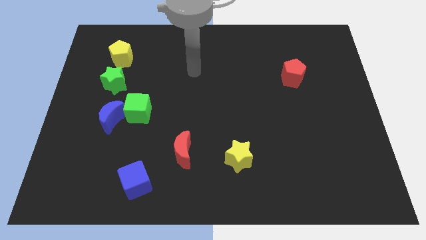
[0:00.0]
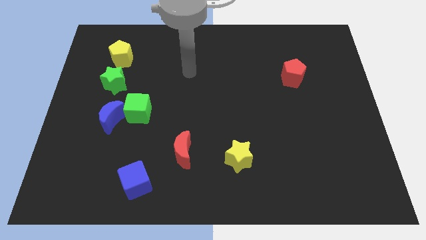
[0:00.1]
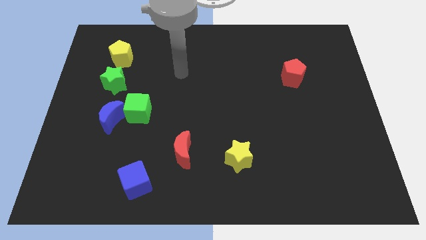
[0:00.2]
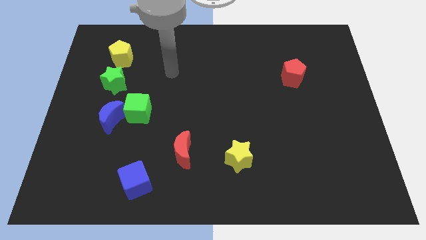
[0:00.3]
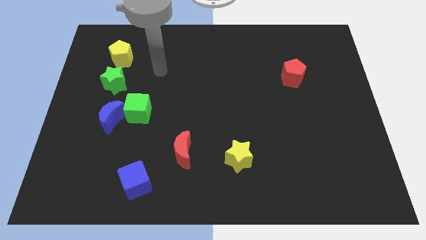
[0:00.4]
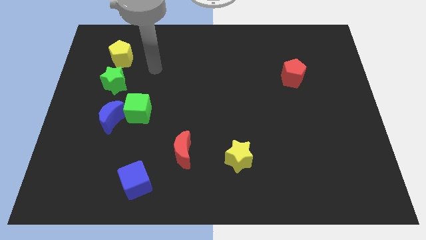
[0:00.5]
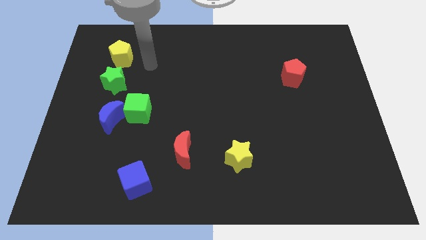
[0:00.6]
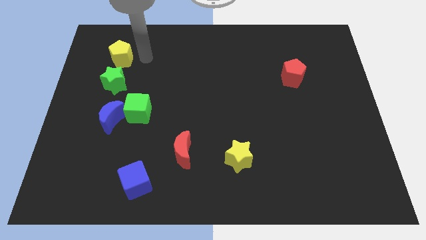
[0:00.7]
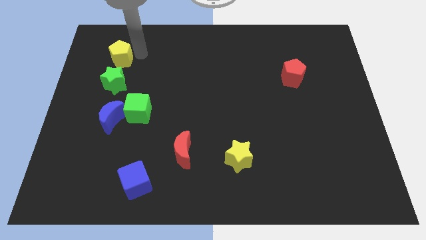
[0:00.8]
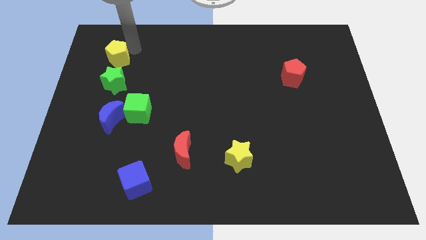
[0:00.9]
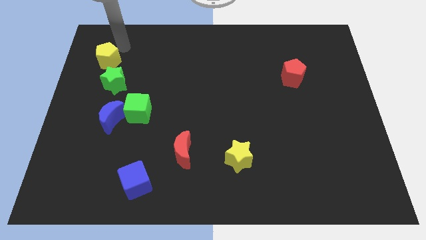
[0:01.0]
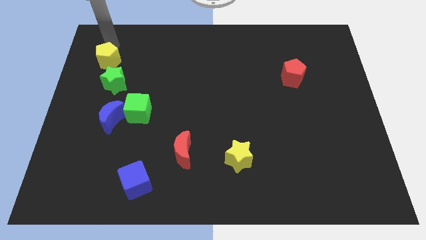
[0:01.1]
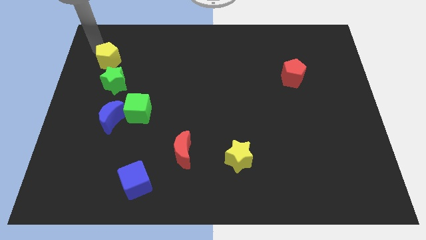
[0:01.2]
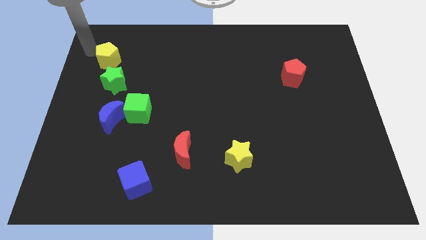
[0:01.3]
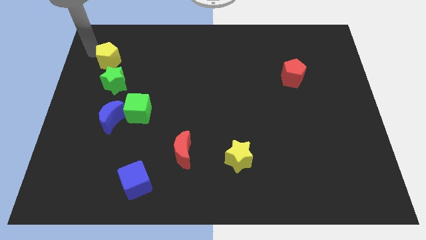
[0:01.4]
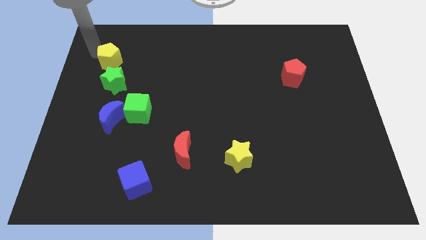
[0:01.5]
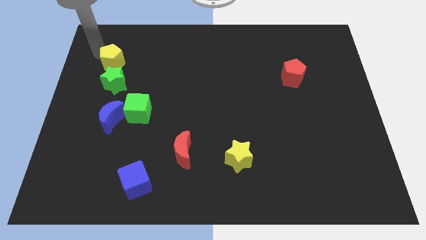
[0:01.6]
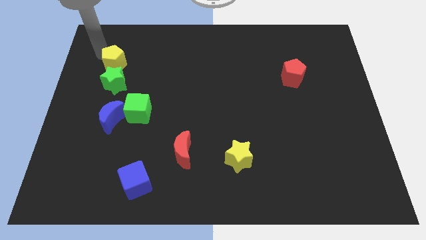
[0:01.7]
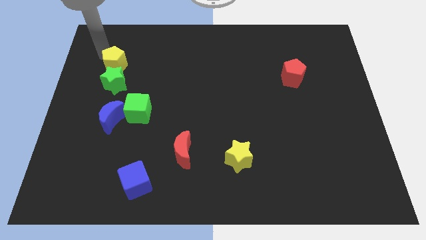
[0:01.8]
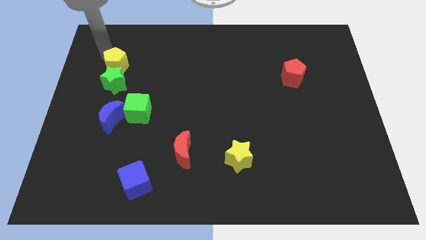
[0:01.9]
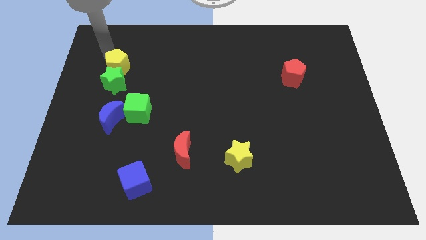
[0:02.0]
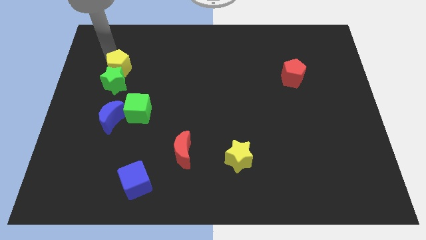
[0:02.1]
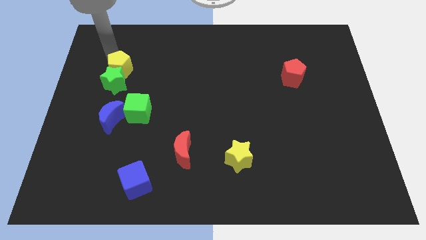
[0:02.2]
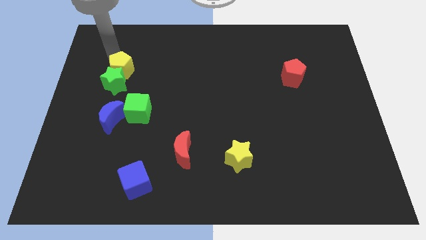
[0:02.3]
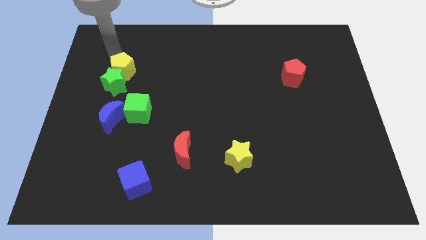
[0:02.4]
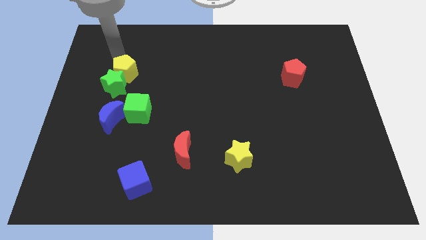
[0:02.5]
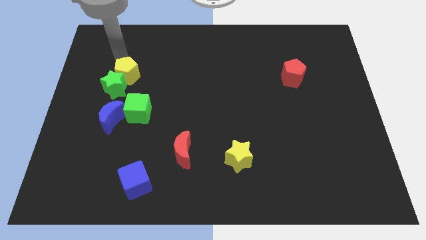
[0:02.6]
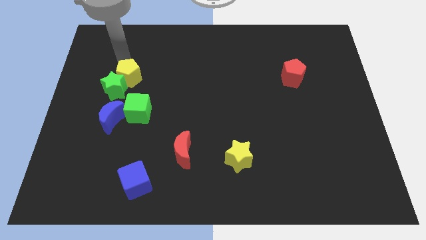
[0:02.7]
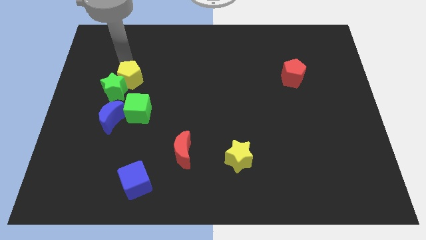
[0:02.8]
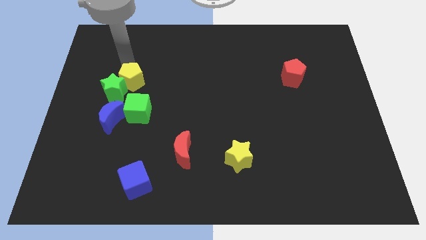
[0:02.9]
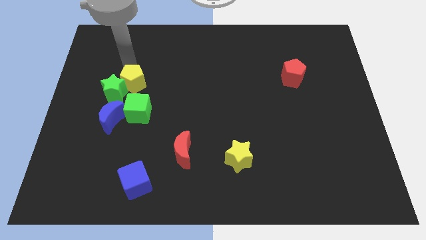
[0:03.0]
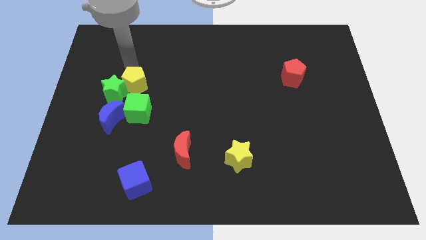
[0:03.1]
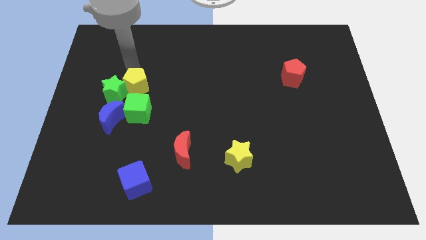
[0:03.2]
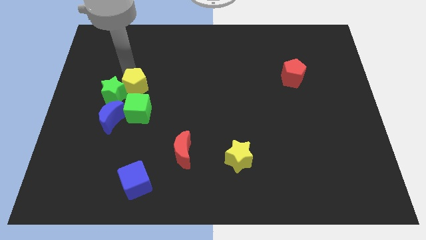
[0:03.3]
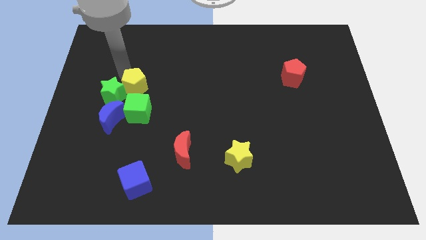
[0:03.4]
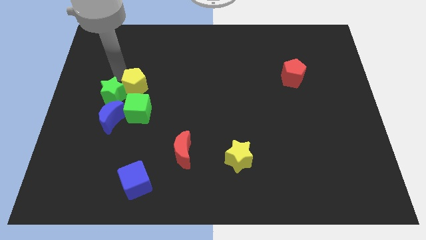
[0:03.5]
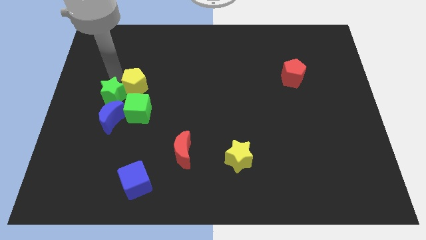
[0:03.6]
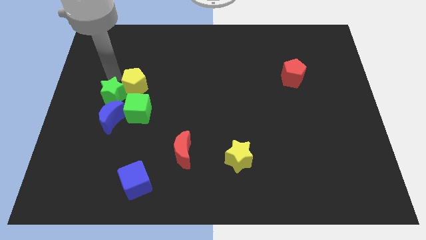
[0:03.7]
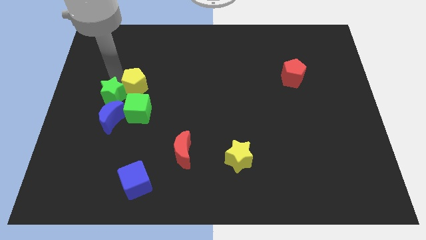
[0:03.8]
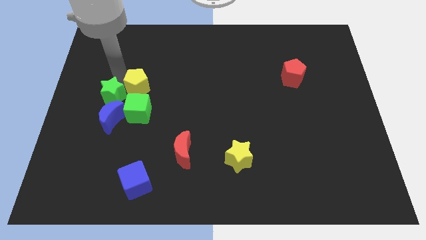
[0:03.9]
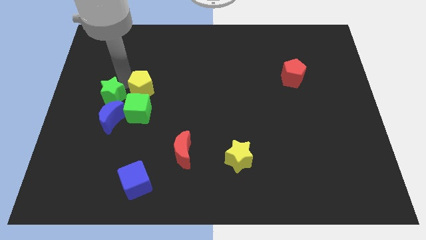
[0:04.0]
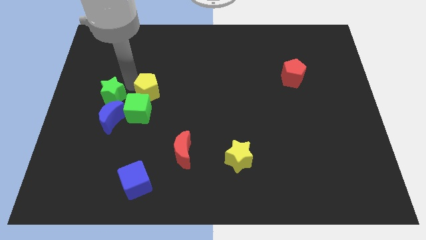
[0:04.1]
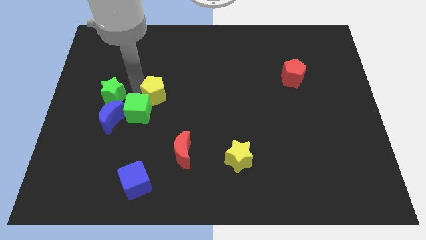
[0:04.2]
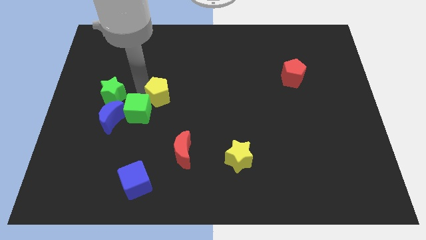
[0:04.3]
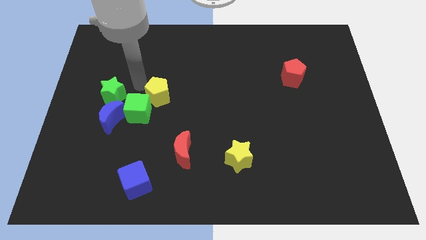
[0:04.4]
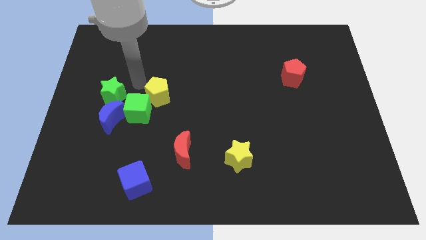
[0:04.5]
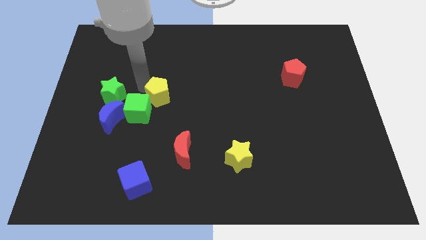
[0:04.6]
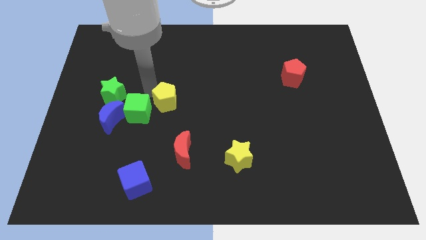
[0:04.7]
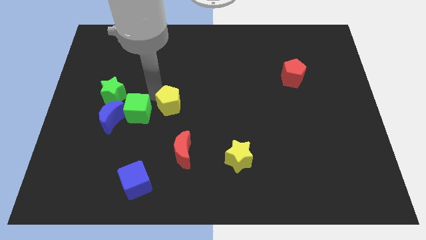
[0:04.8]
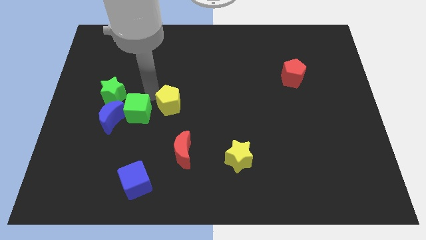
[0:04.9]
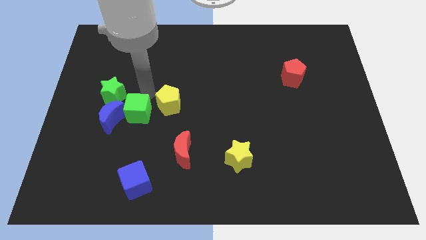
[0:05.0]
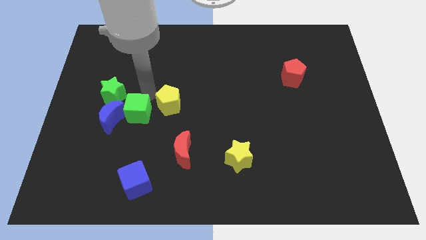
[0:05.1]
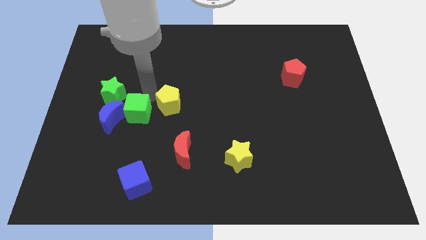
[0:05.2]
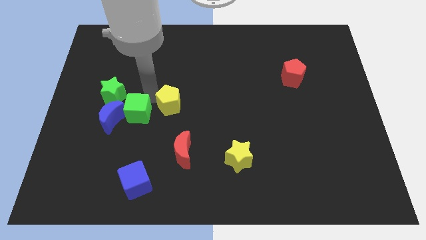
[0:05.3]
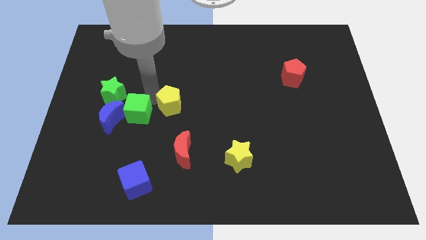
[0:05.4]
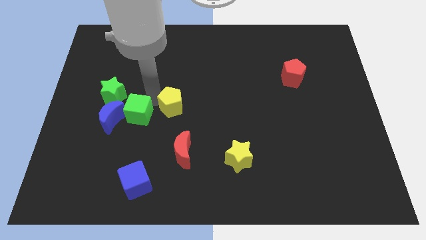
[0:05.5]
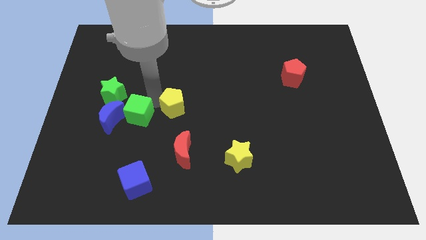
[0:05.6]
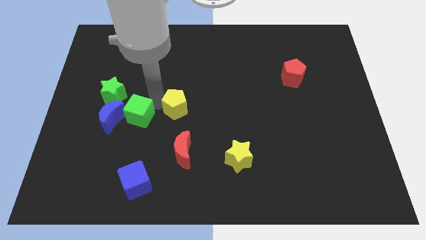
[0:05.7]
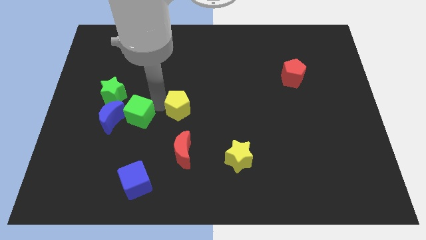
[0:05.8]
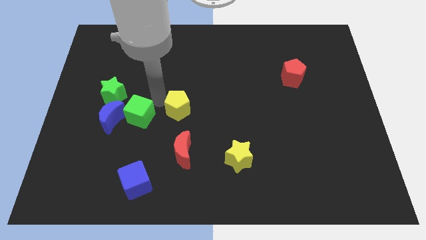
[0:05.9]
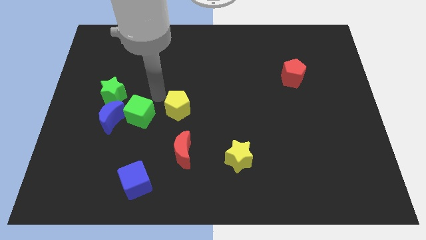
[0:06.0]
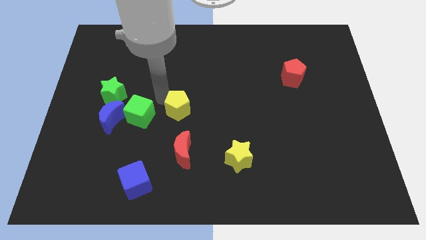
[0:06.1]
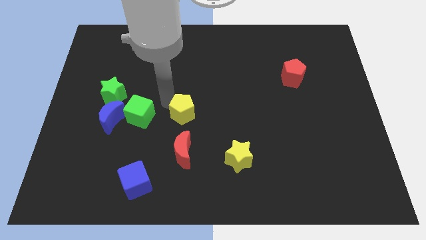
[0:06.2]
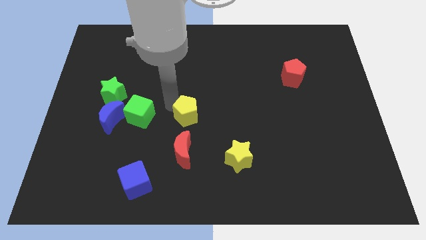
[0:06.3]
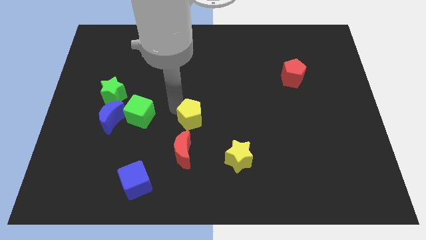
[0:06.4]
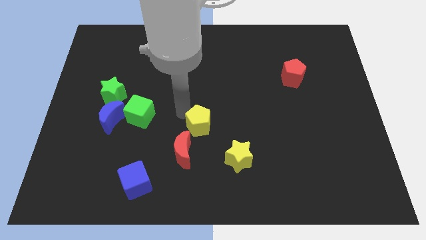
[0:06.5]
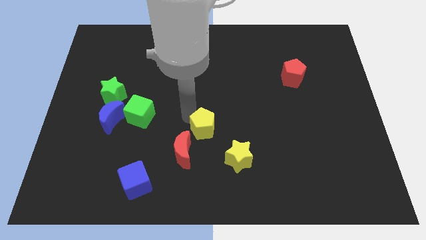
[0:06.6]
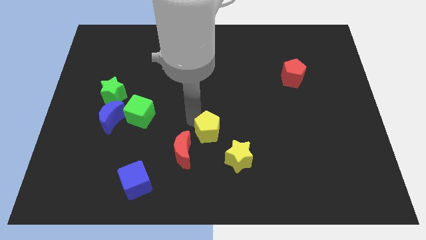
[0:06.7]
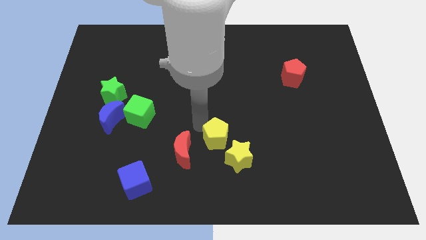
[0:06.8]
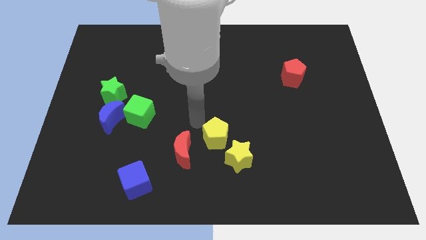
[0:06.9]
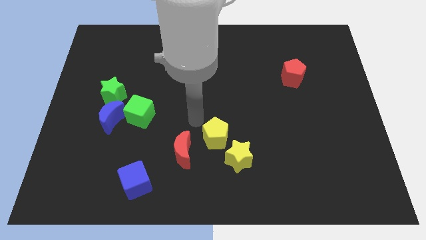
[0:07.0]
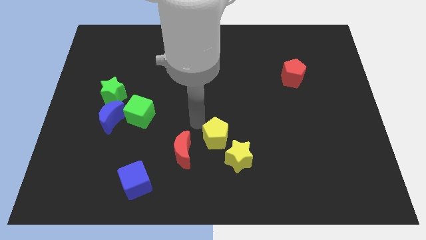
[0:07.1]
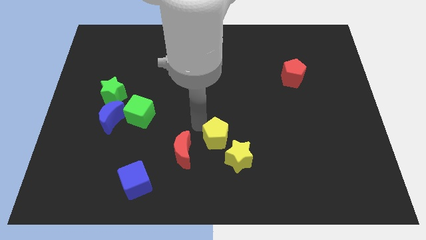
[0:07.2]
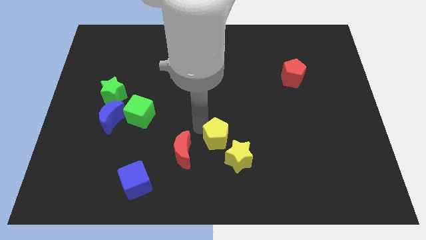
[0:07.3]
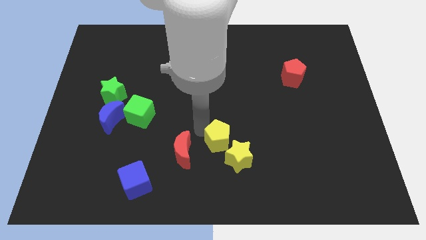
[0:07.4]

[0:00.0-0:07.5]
push the yellow pentagon towards the yellow star

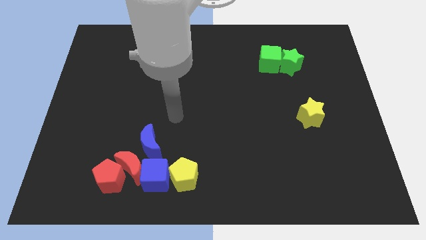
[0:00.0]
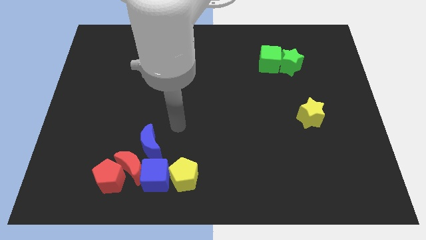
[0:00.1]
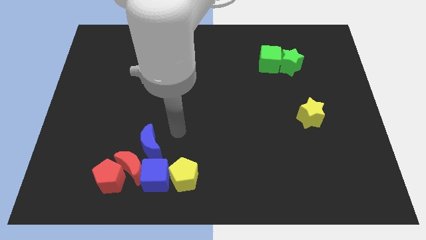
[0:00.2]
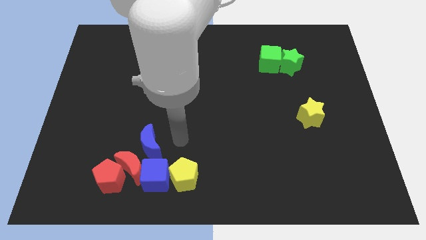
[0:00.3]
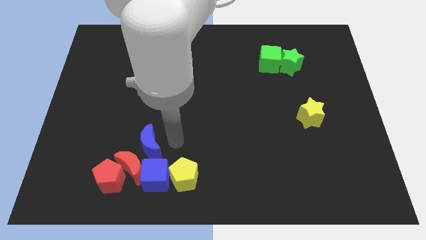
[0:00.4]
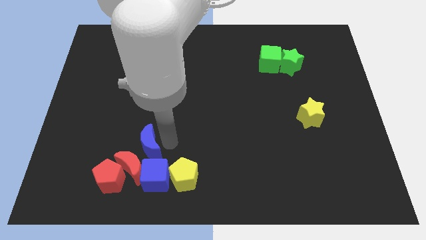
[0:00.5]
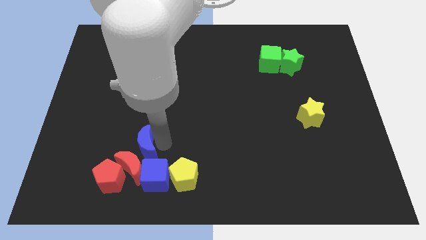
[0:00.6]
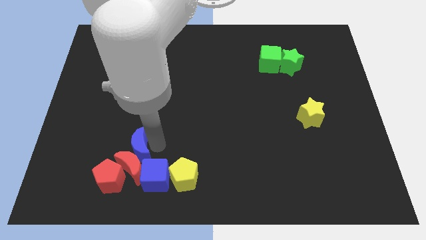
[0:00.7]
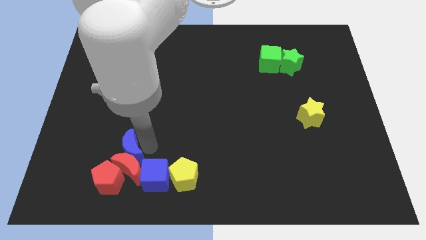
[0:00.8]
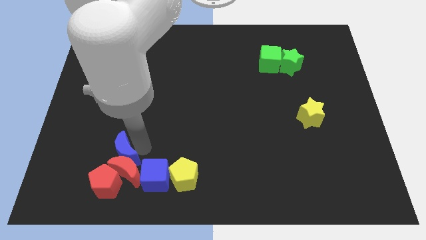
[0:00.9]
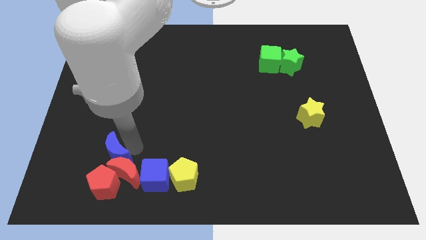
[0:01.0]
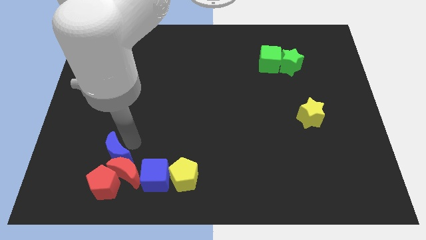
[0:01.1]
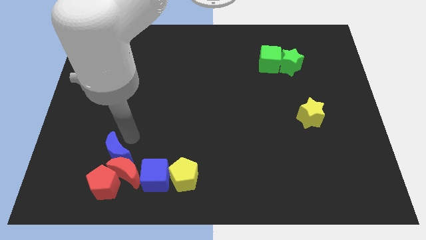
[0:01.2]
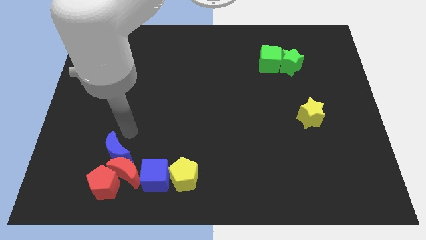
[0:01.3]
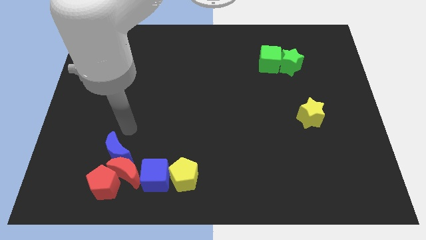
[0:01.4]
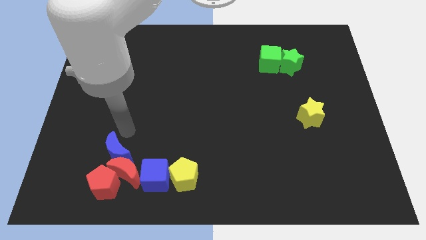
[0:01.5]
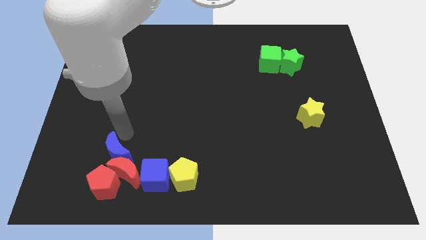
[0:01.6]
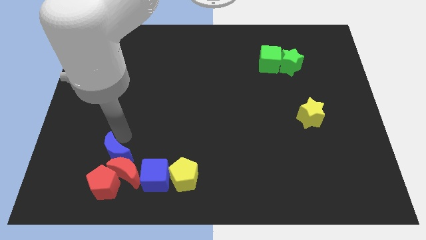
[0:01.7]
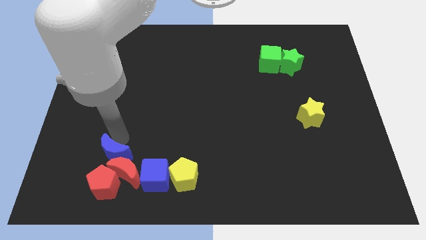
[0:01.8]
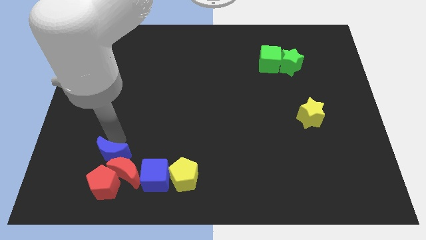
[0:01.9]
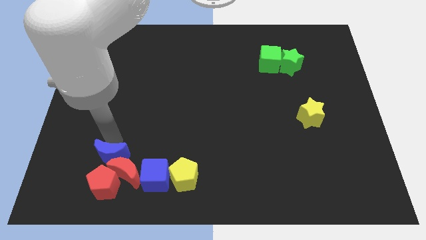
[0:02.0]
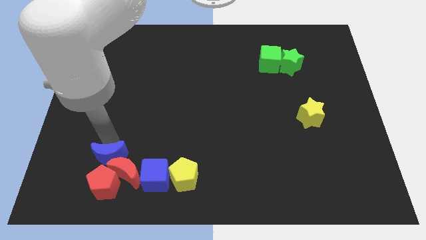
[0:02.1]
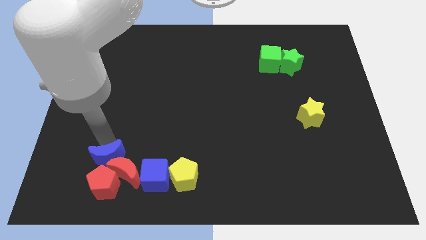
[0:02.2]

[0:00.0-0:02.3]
slide the blue moon towards the red pentagon
